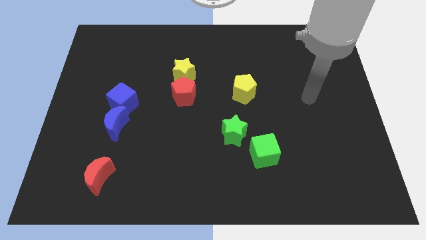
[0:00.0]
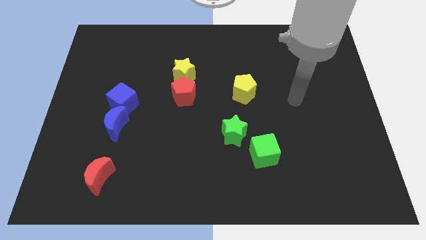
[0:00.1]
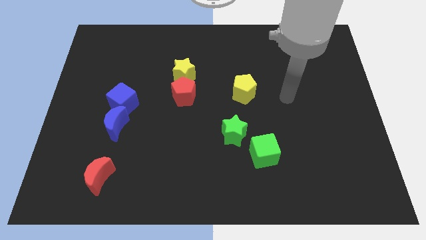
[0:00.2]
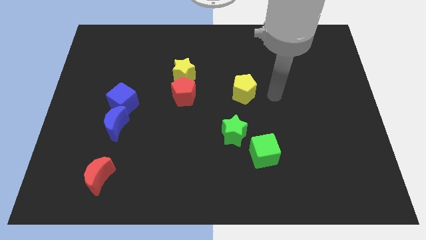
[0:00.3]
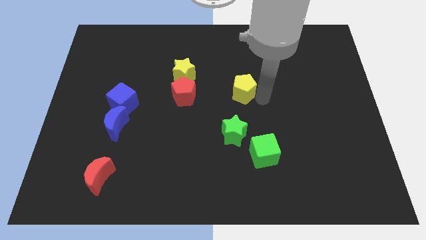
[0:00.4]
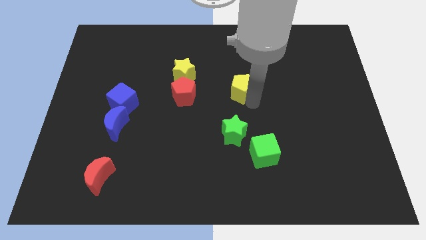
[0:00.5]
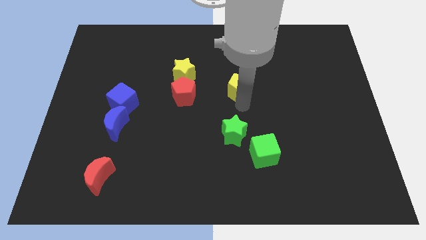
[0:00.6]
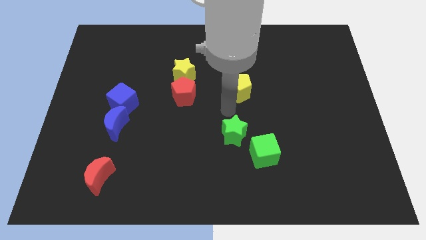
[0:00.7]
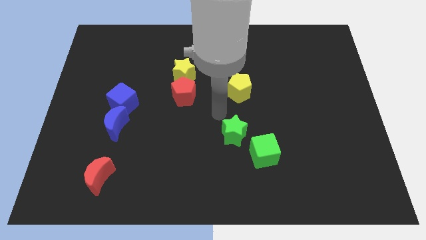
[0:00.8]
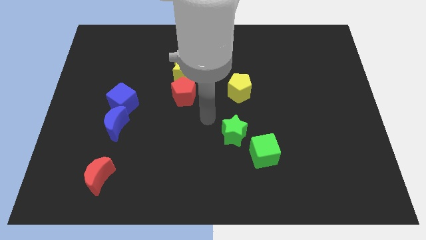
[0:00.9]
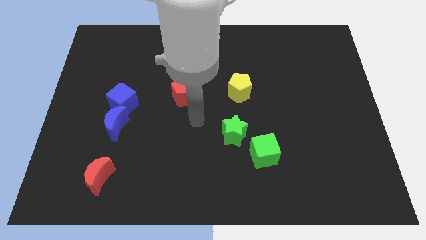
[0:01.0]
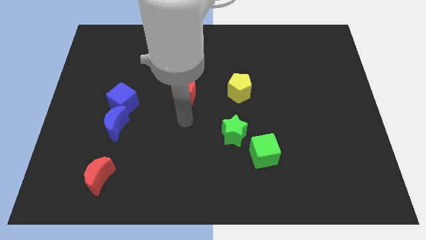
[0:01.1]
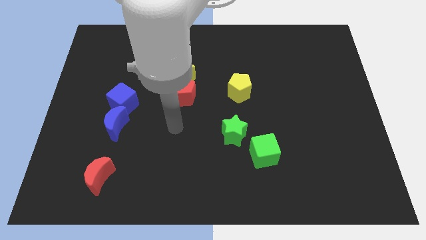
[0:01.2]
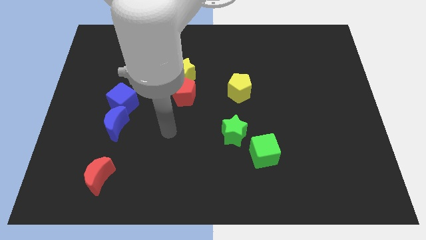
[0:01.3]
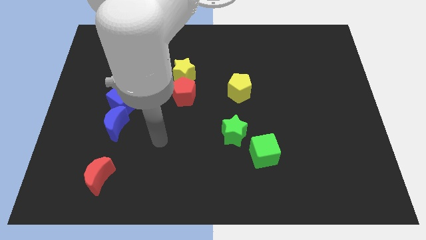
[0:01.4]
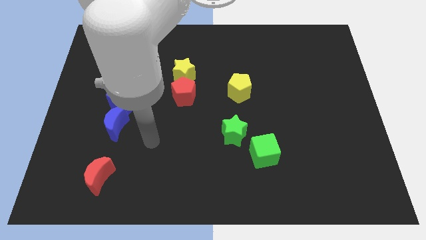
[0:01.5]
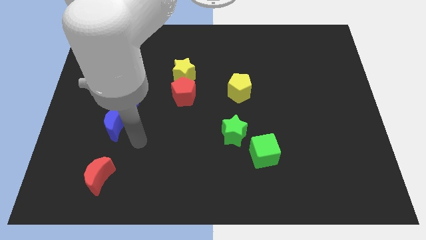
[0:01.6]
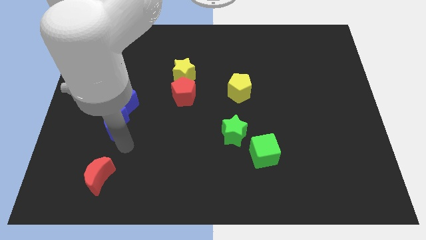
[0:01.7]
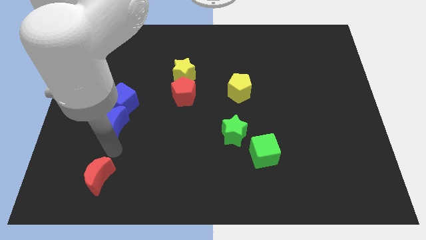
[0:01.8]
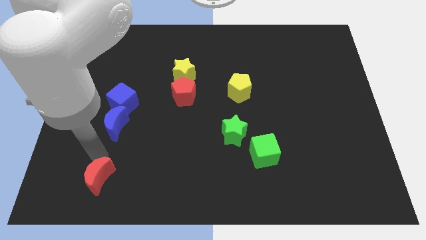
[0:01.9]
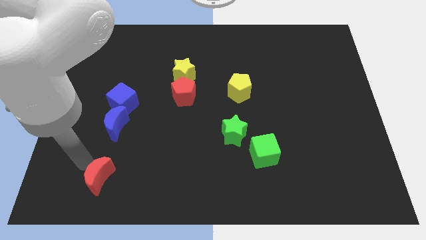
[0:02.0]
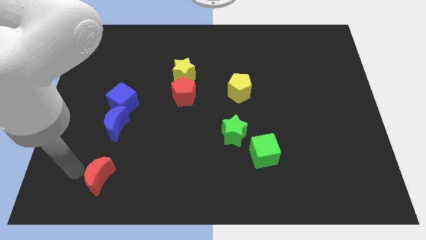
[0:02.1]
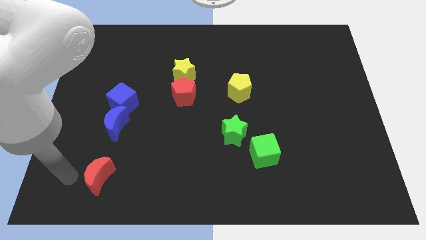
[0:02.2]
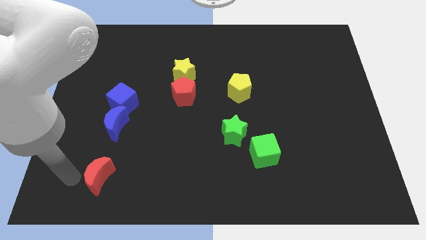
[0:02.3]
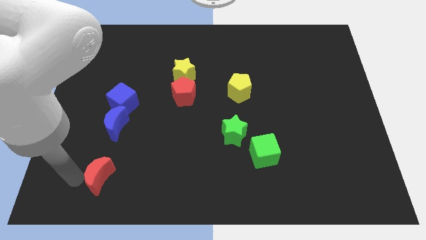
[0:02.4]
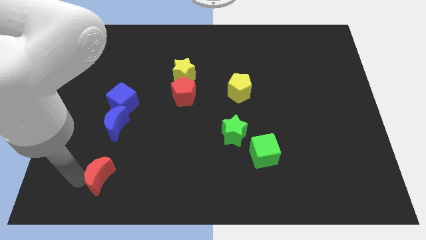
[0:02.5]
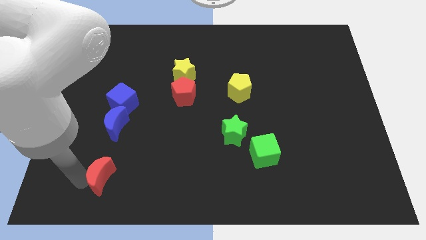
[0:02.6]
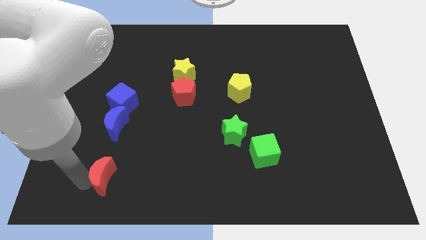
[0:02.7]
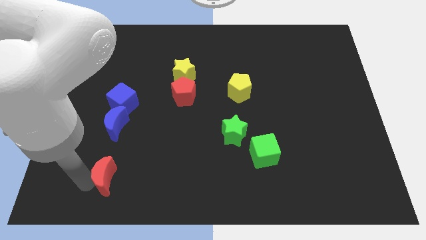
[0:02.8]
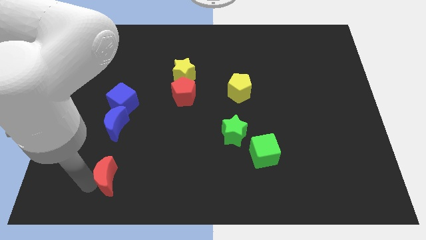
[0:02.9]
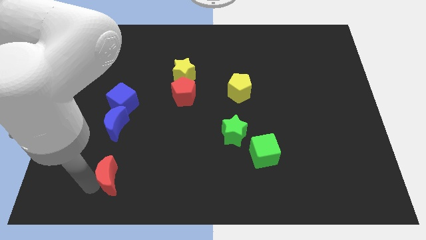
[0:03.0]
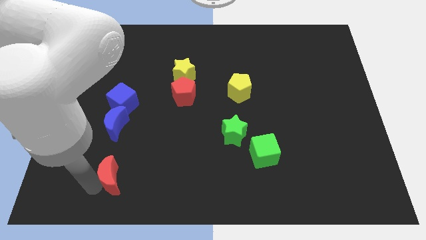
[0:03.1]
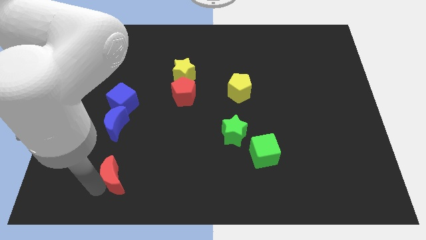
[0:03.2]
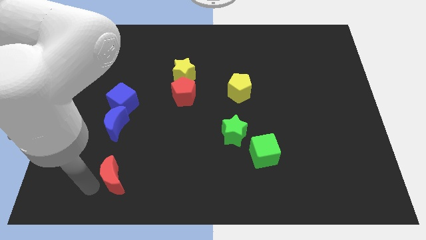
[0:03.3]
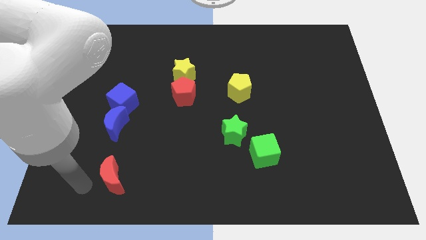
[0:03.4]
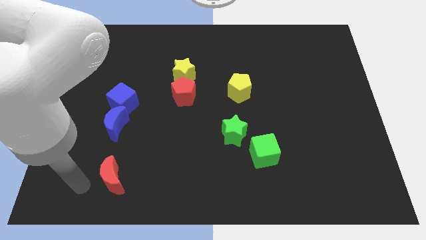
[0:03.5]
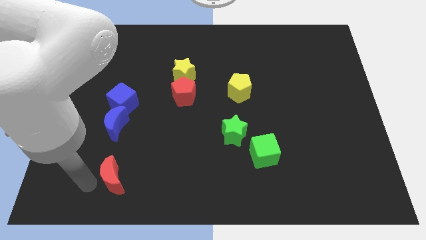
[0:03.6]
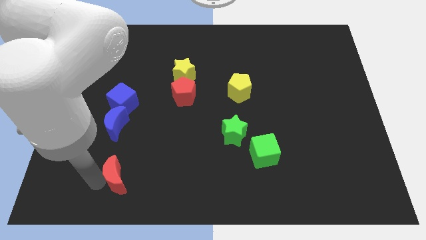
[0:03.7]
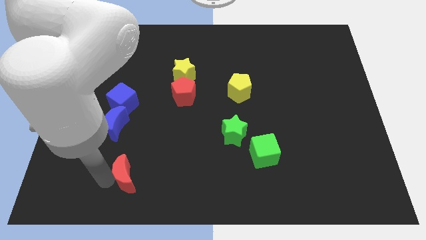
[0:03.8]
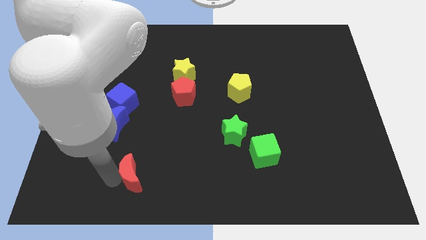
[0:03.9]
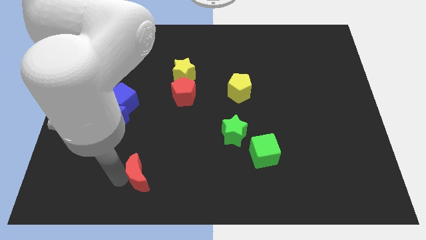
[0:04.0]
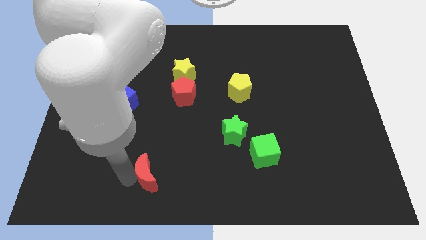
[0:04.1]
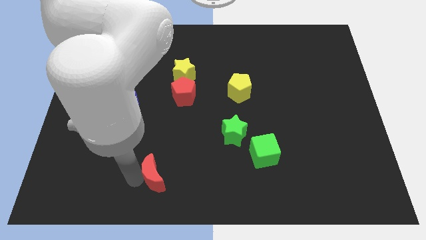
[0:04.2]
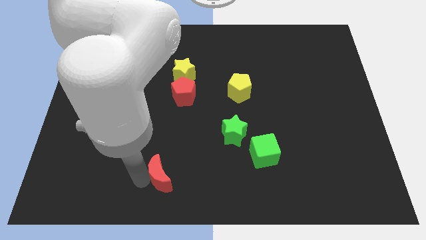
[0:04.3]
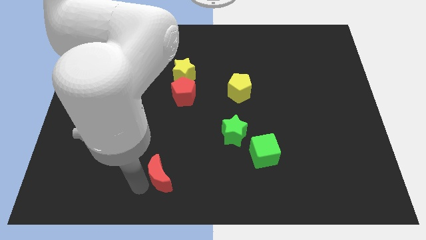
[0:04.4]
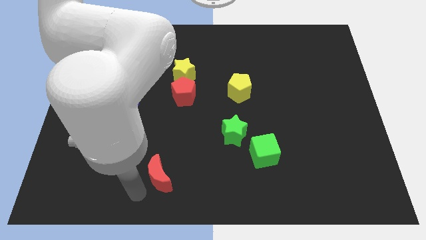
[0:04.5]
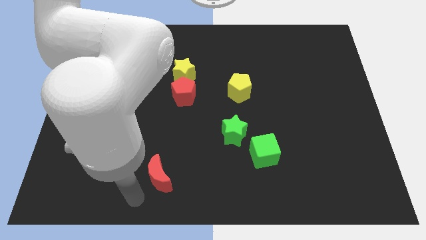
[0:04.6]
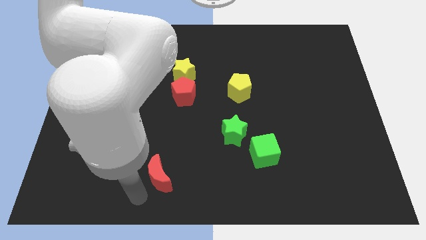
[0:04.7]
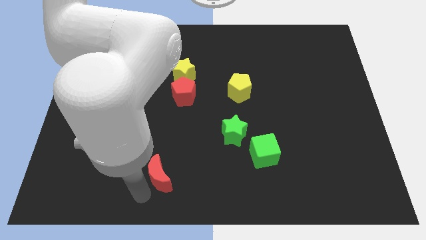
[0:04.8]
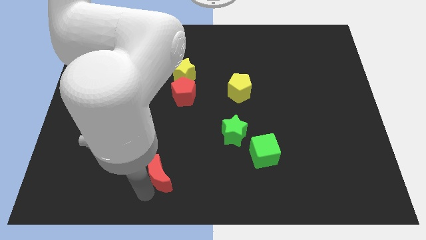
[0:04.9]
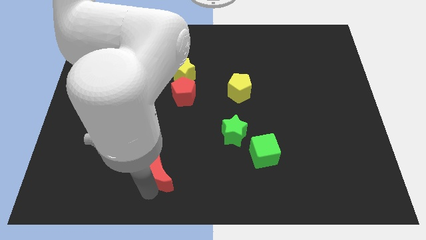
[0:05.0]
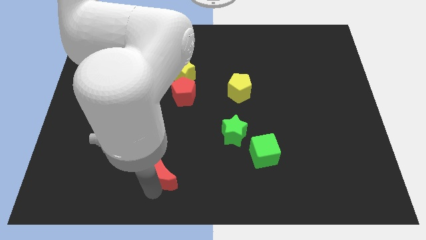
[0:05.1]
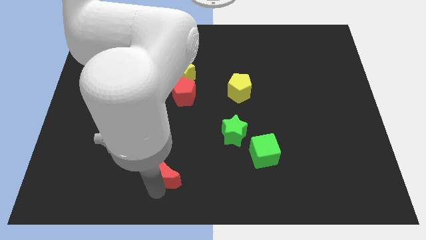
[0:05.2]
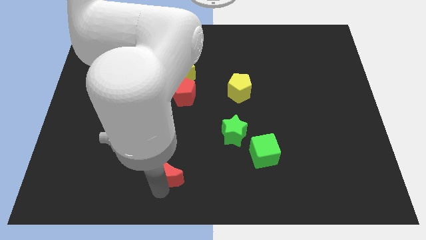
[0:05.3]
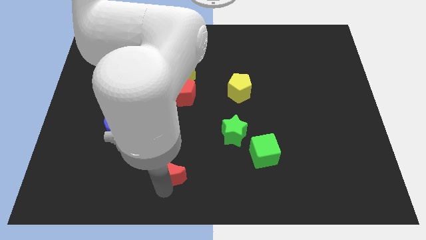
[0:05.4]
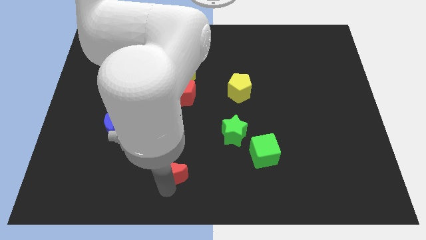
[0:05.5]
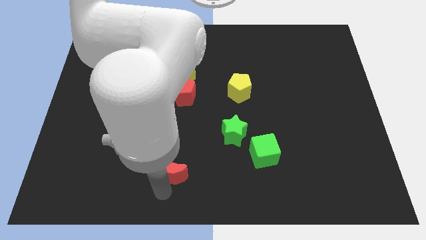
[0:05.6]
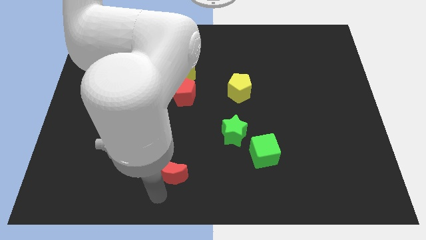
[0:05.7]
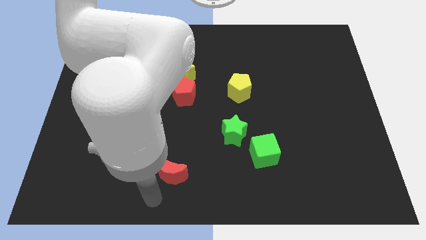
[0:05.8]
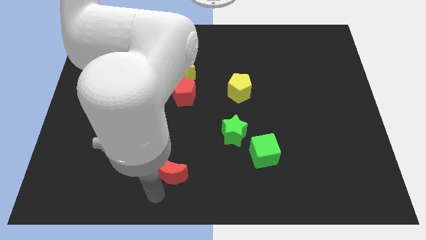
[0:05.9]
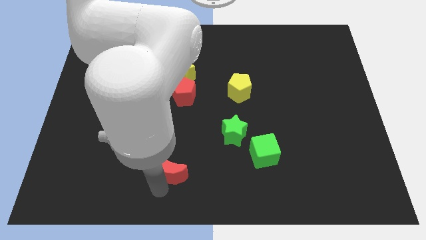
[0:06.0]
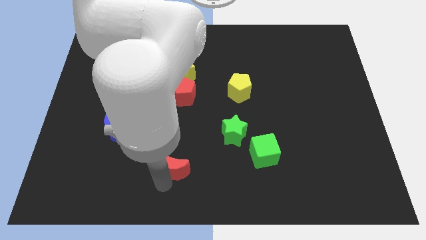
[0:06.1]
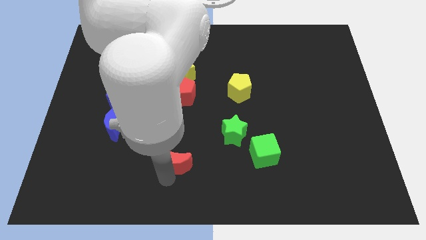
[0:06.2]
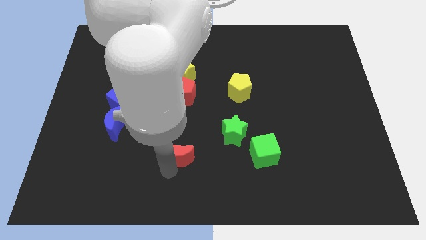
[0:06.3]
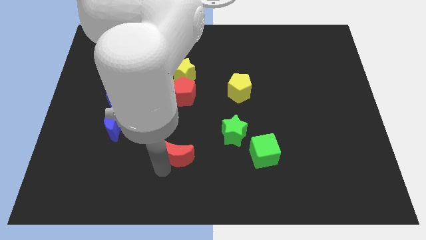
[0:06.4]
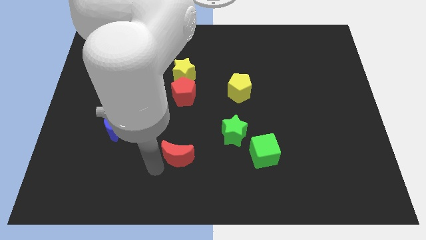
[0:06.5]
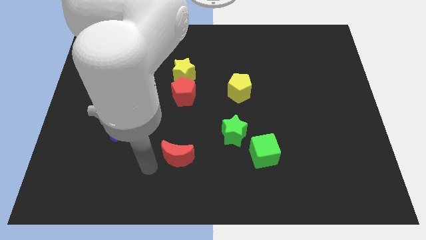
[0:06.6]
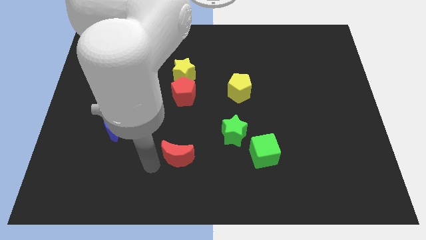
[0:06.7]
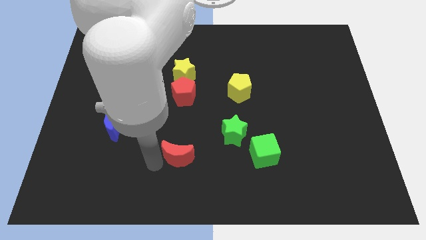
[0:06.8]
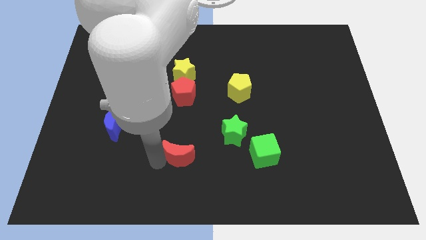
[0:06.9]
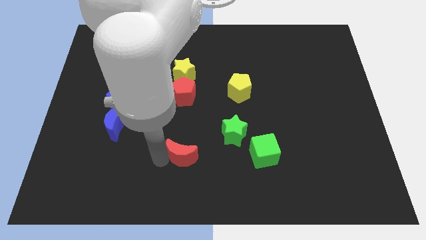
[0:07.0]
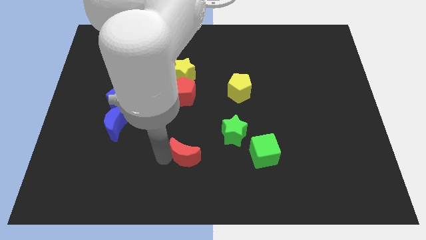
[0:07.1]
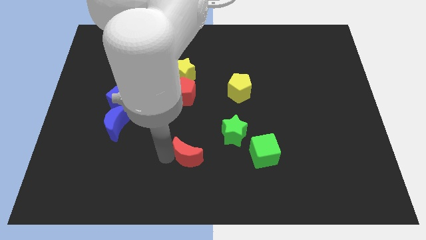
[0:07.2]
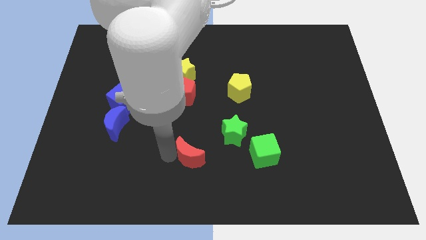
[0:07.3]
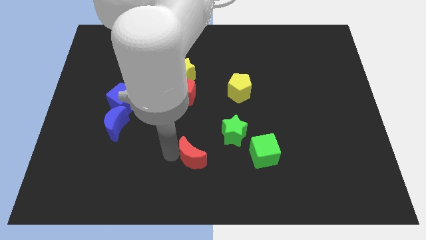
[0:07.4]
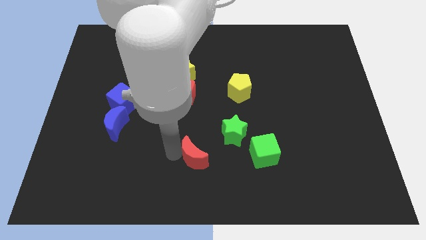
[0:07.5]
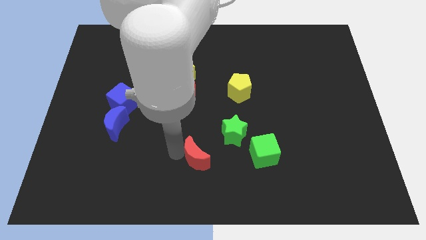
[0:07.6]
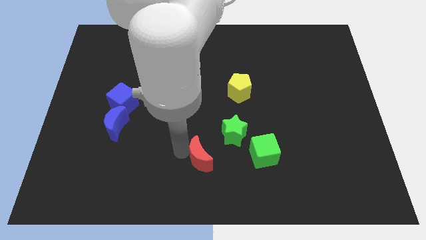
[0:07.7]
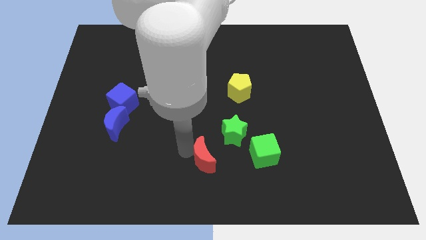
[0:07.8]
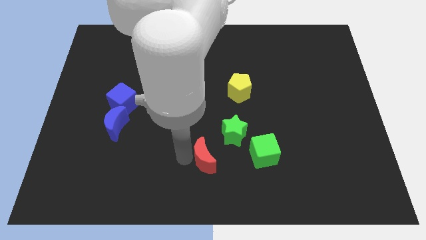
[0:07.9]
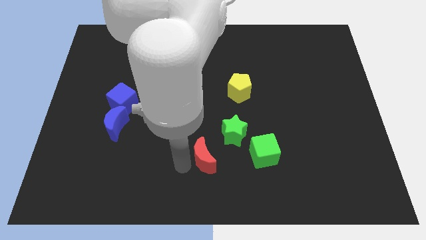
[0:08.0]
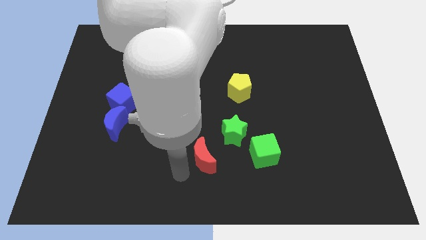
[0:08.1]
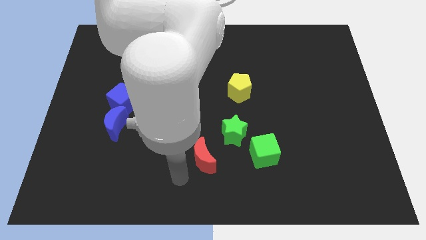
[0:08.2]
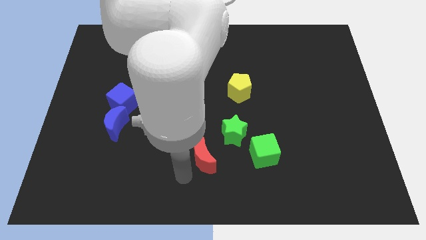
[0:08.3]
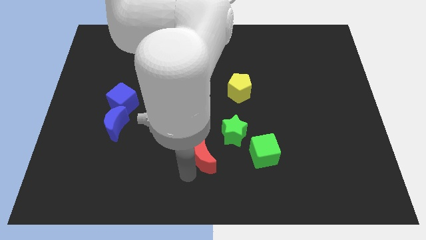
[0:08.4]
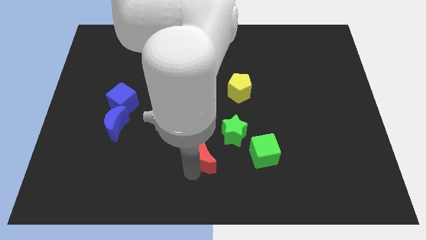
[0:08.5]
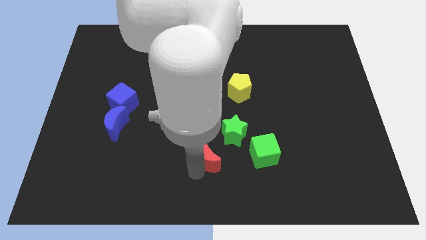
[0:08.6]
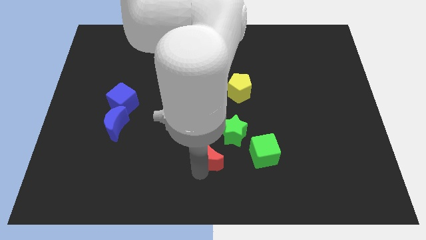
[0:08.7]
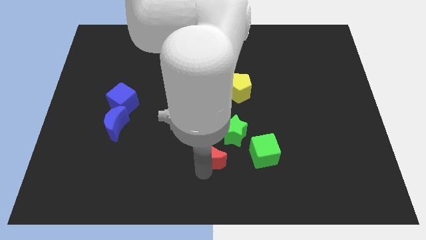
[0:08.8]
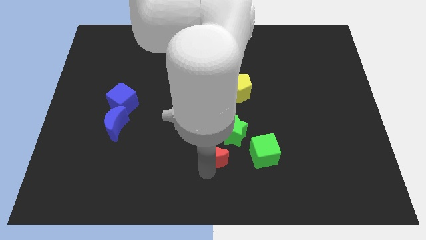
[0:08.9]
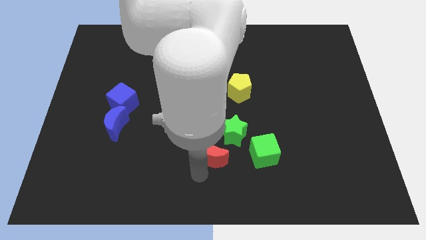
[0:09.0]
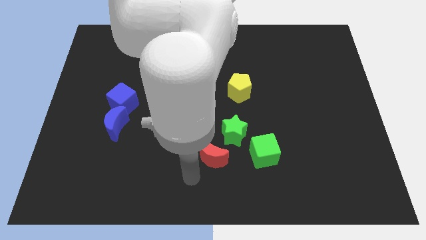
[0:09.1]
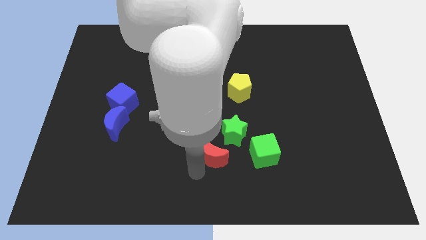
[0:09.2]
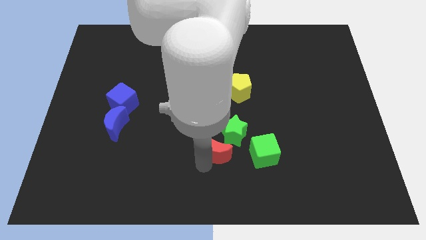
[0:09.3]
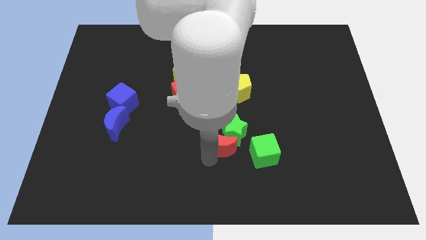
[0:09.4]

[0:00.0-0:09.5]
put the red moon to the green star
